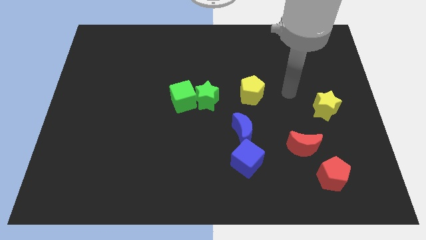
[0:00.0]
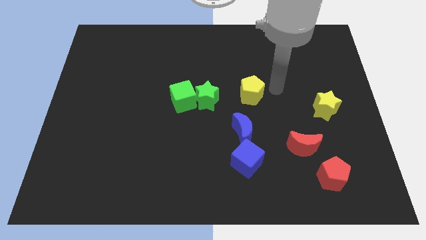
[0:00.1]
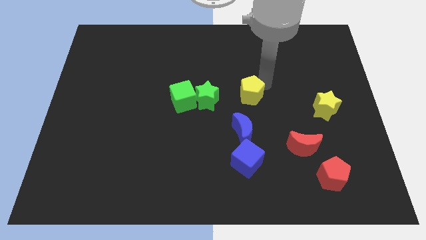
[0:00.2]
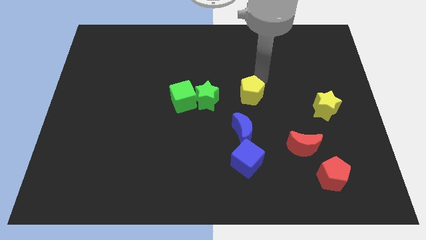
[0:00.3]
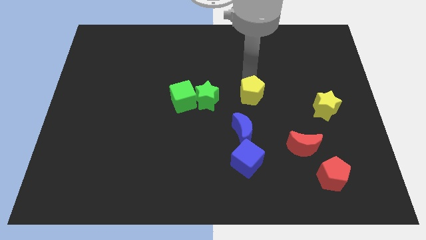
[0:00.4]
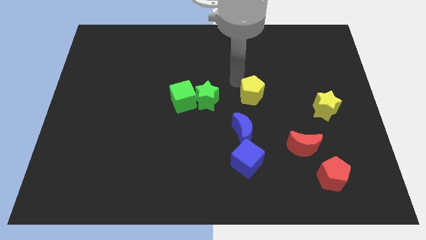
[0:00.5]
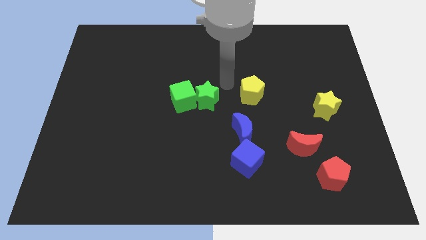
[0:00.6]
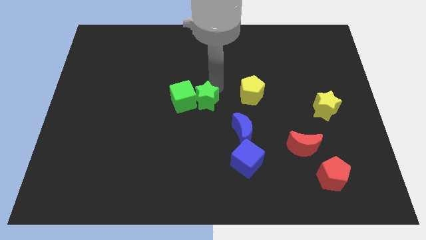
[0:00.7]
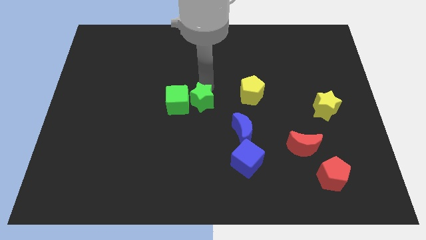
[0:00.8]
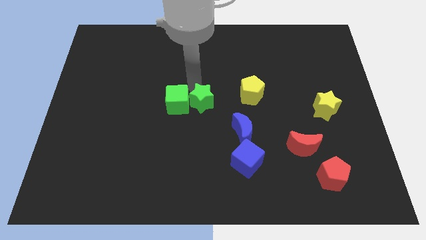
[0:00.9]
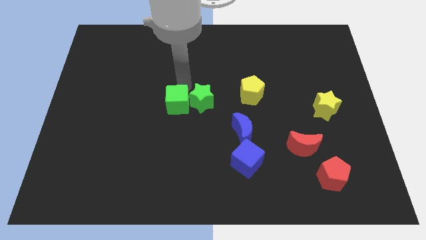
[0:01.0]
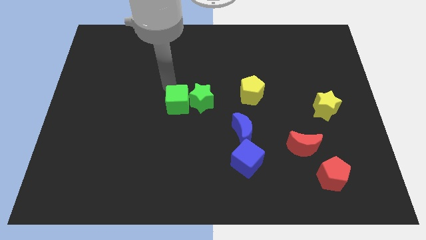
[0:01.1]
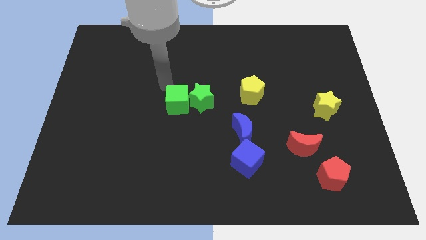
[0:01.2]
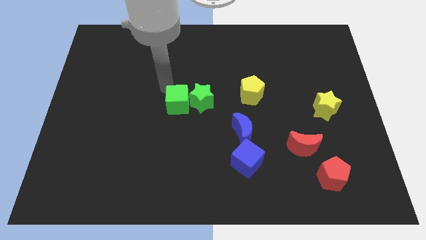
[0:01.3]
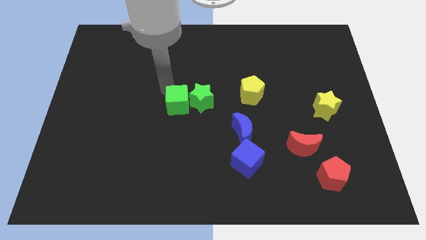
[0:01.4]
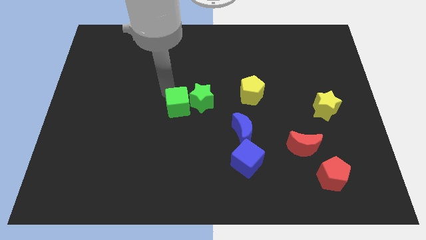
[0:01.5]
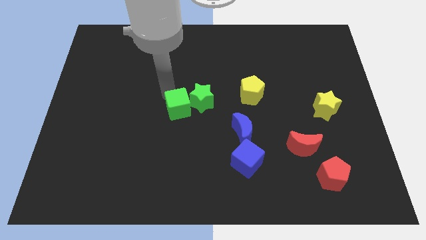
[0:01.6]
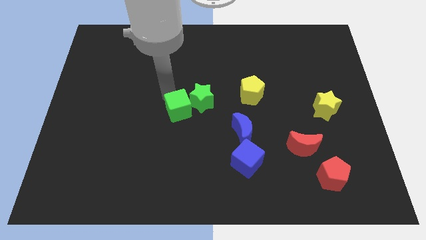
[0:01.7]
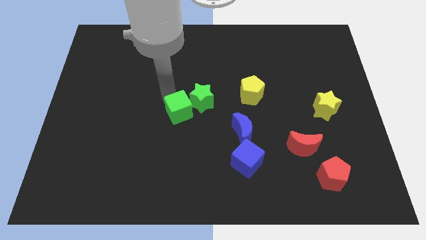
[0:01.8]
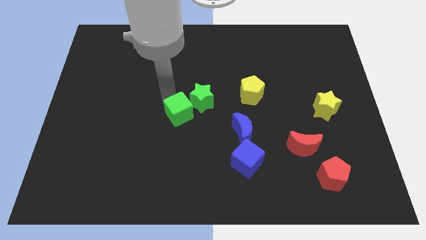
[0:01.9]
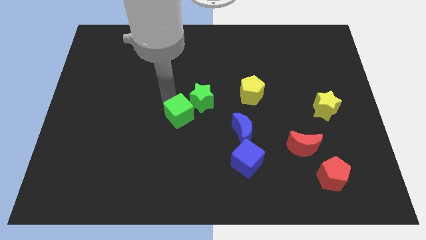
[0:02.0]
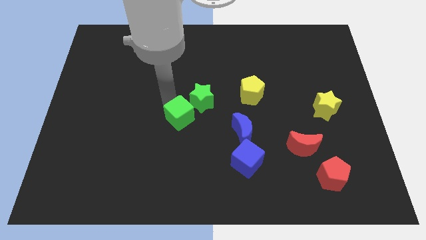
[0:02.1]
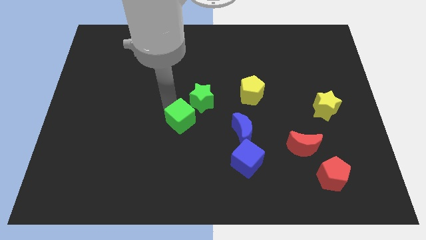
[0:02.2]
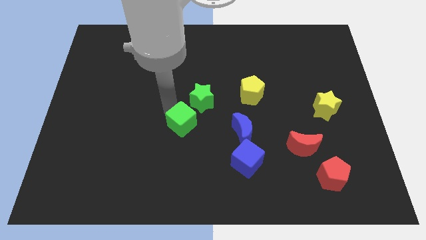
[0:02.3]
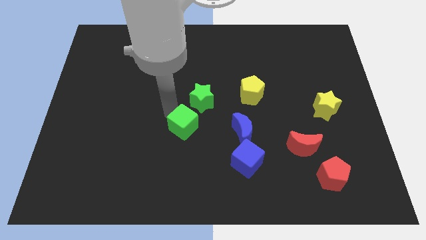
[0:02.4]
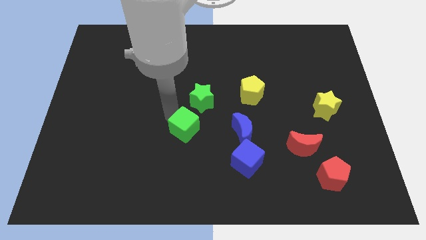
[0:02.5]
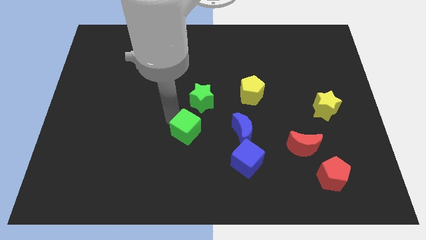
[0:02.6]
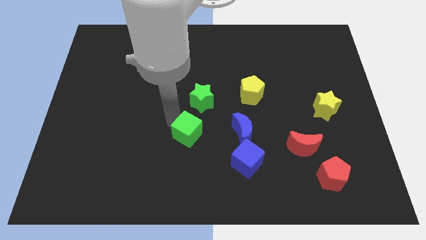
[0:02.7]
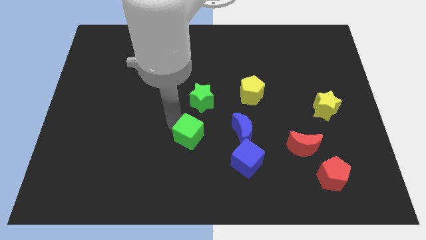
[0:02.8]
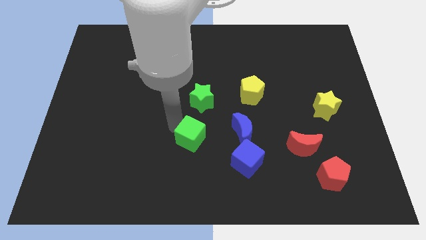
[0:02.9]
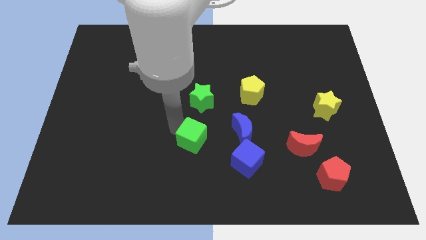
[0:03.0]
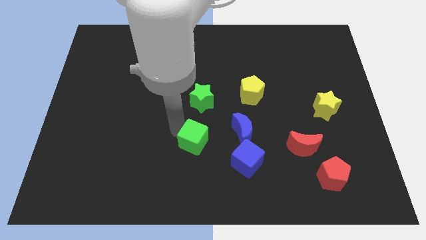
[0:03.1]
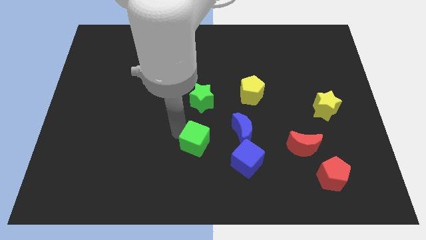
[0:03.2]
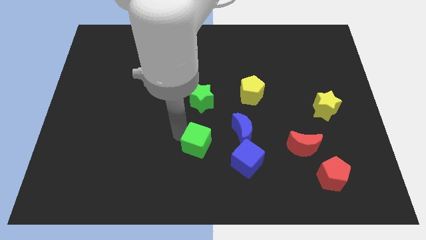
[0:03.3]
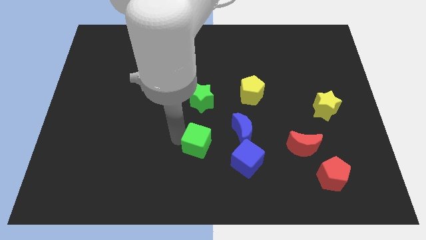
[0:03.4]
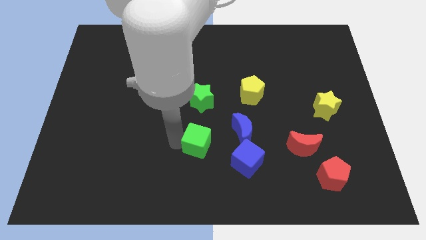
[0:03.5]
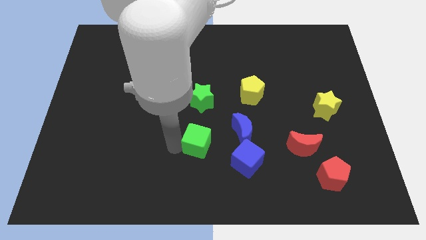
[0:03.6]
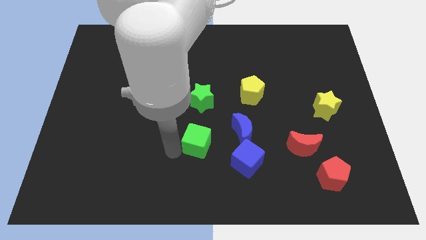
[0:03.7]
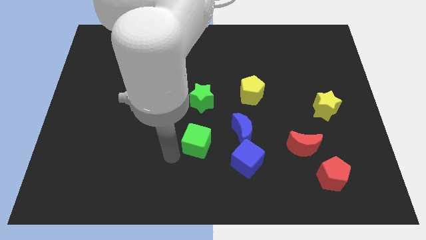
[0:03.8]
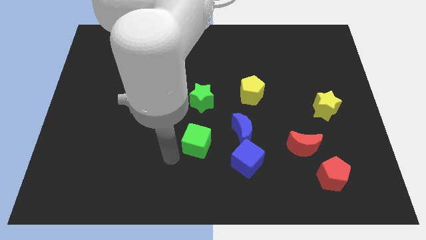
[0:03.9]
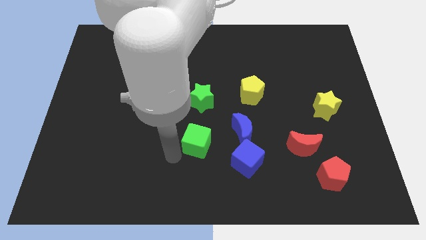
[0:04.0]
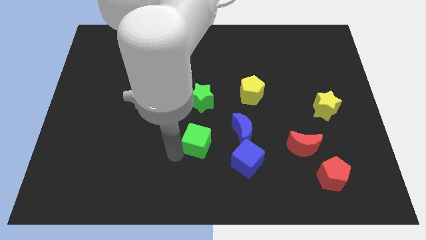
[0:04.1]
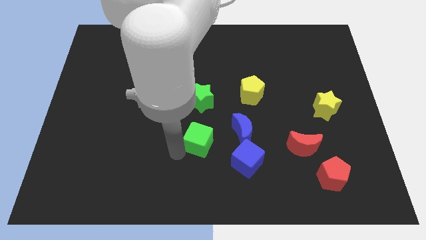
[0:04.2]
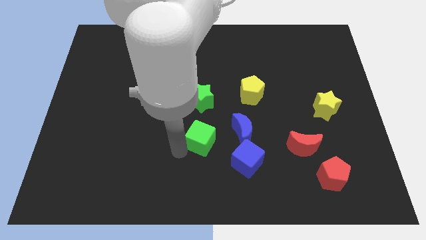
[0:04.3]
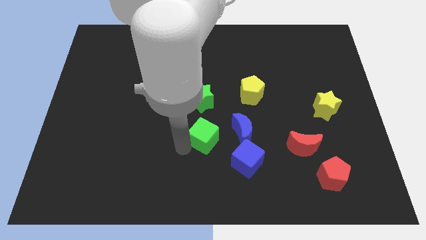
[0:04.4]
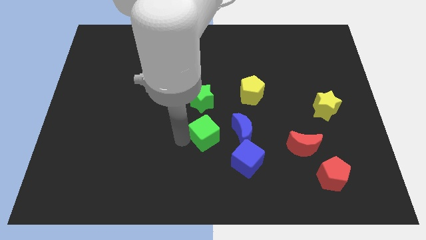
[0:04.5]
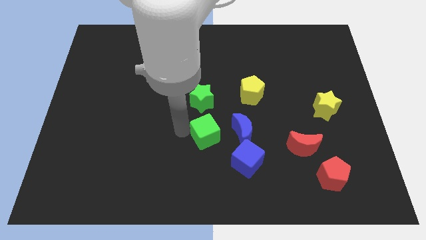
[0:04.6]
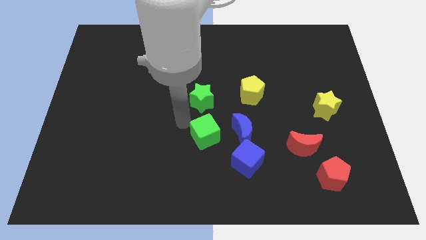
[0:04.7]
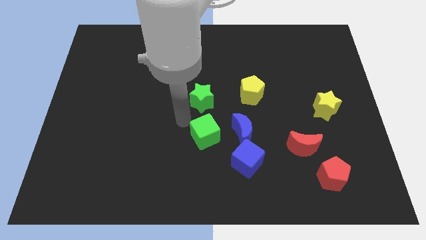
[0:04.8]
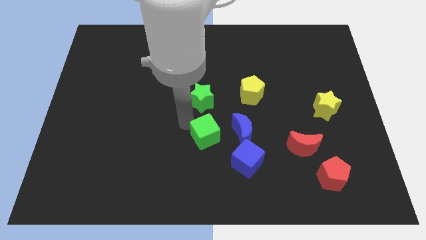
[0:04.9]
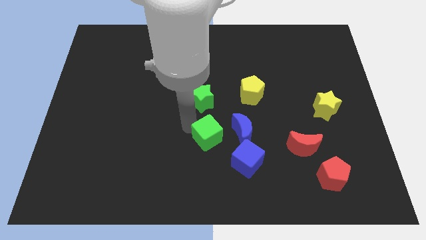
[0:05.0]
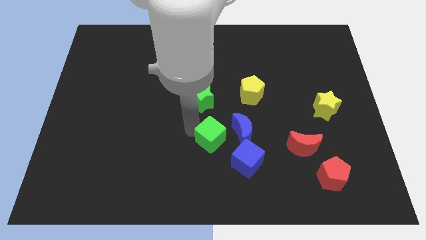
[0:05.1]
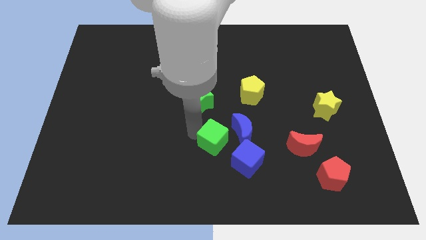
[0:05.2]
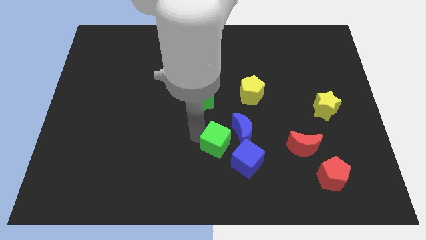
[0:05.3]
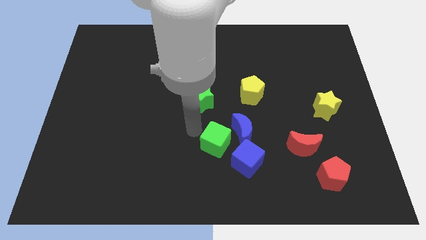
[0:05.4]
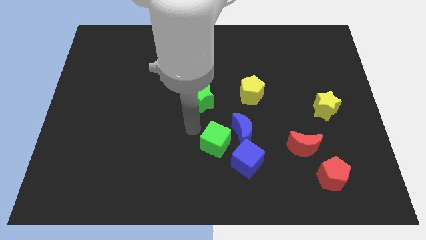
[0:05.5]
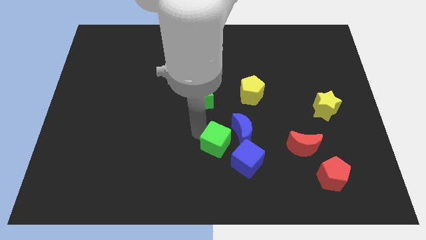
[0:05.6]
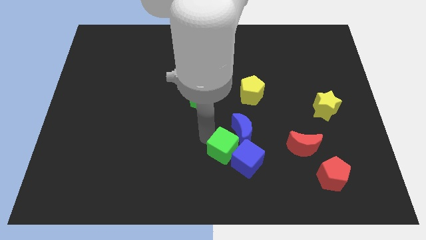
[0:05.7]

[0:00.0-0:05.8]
push the green cube towards the blue cube
